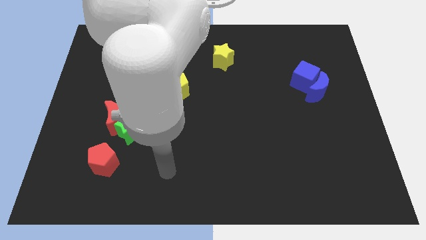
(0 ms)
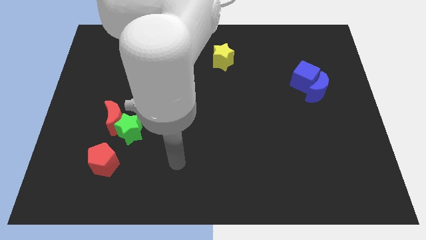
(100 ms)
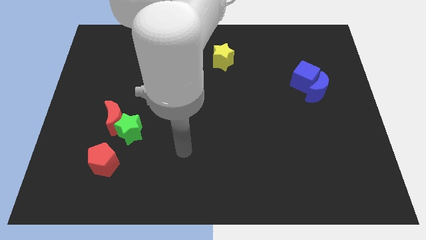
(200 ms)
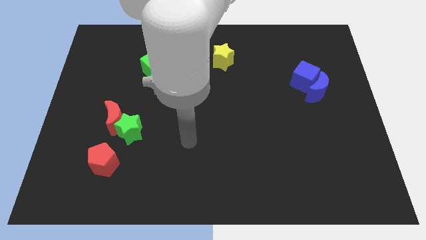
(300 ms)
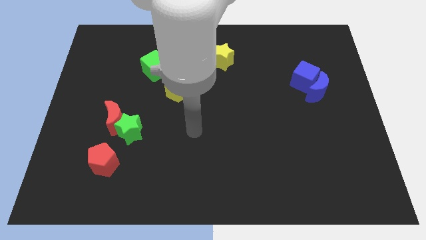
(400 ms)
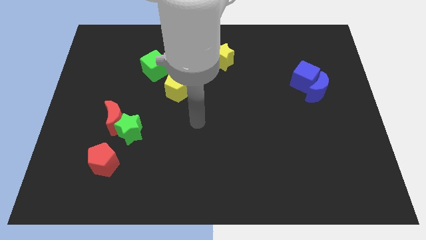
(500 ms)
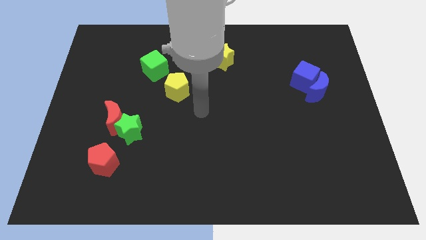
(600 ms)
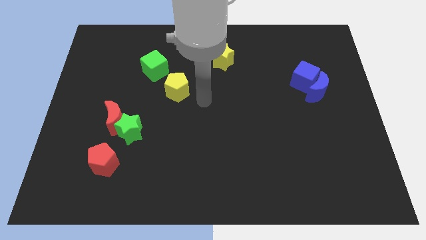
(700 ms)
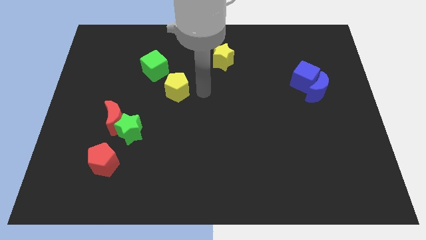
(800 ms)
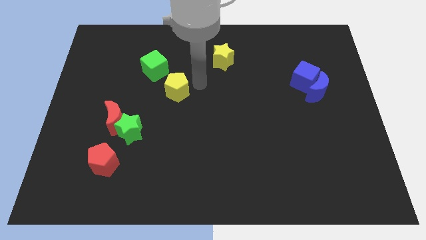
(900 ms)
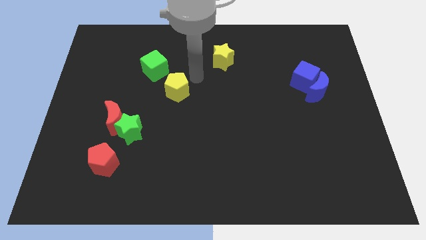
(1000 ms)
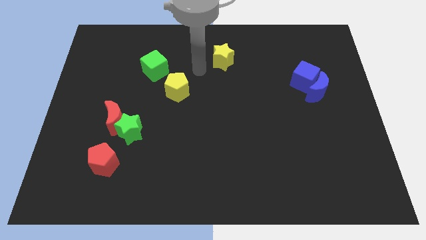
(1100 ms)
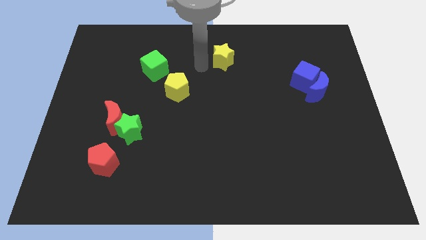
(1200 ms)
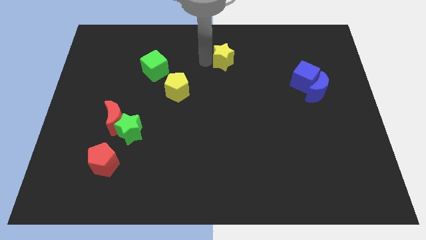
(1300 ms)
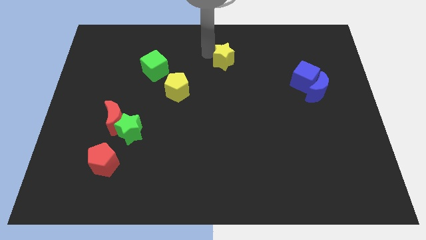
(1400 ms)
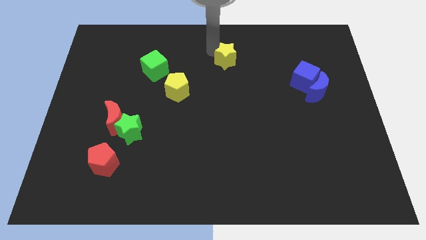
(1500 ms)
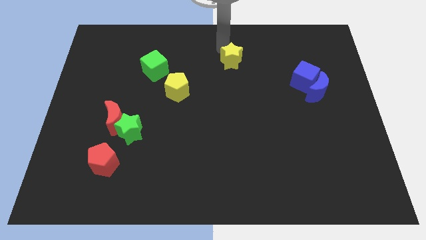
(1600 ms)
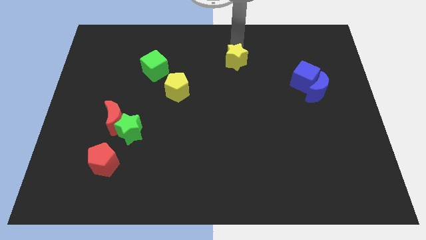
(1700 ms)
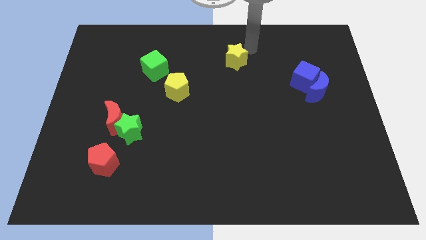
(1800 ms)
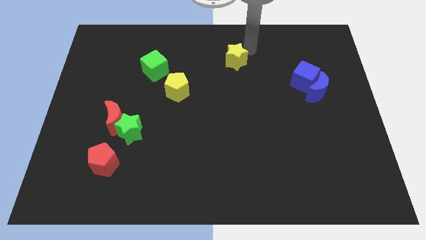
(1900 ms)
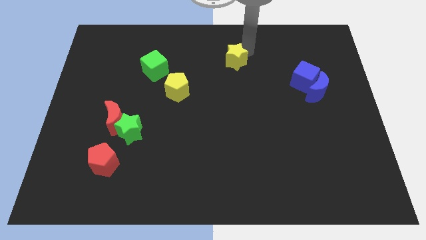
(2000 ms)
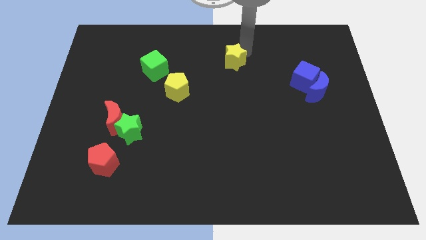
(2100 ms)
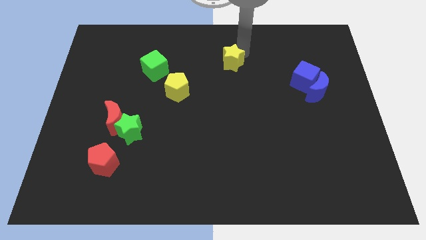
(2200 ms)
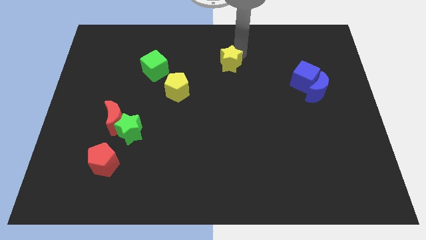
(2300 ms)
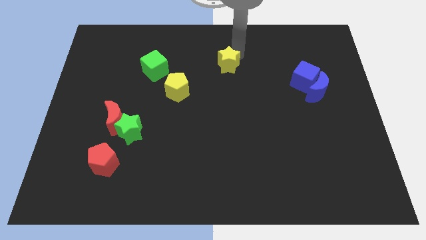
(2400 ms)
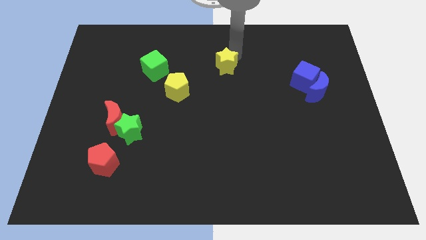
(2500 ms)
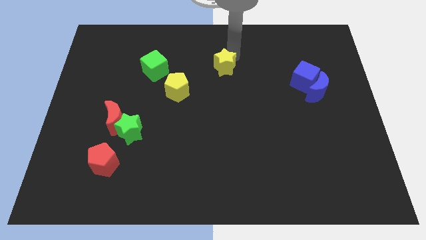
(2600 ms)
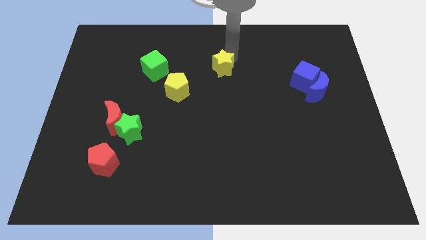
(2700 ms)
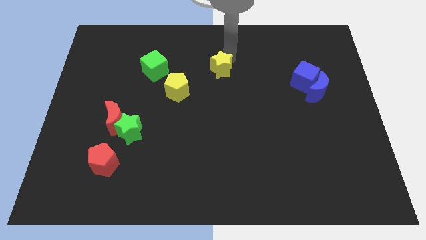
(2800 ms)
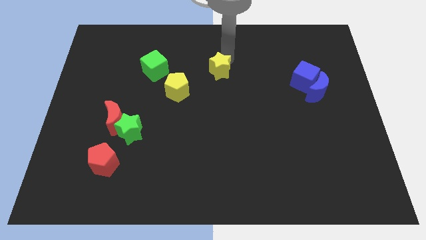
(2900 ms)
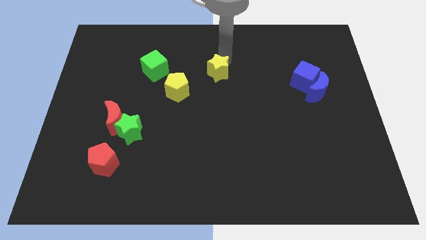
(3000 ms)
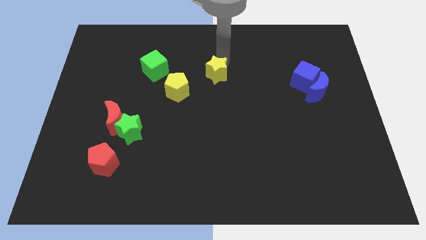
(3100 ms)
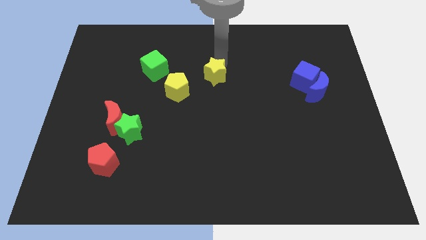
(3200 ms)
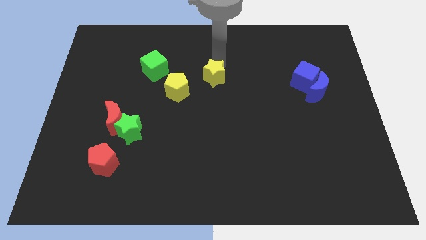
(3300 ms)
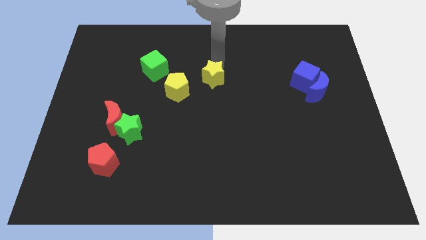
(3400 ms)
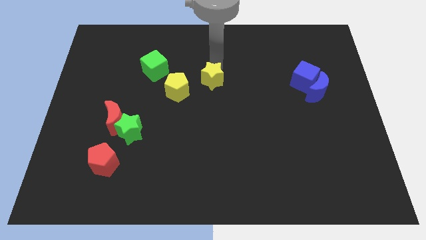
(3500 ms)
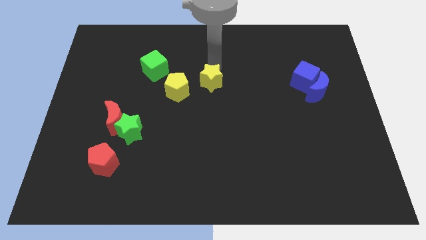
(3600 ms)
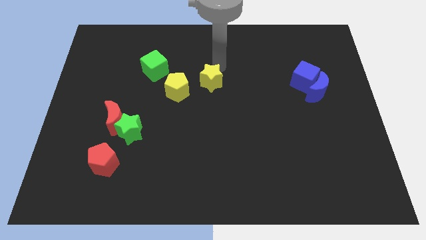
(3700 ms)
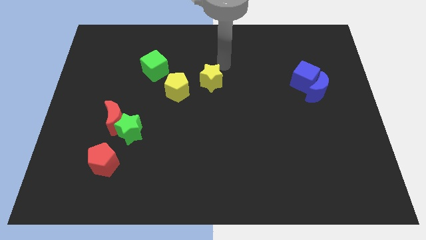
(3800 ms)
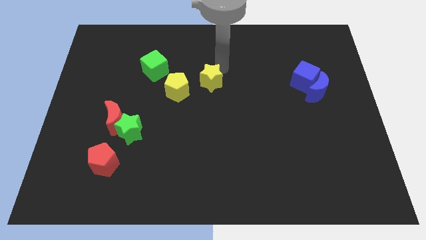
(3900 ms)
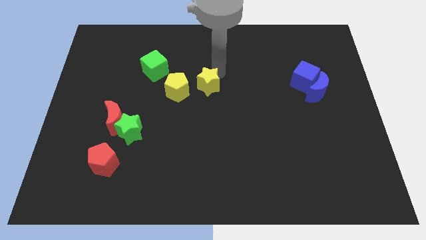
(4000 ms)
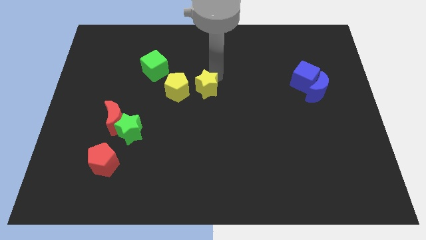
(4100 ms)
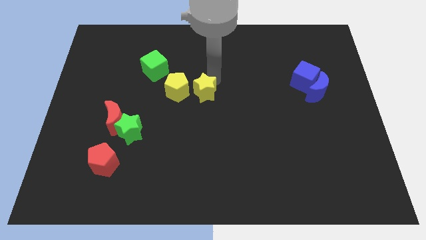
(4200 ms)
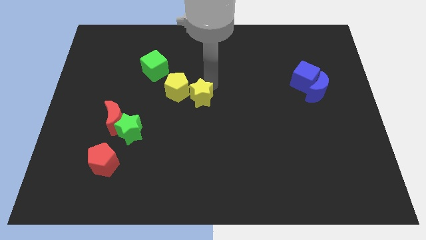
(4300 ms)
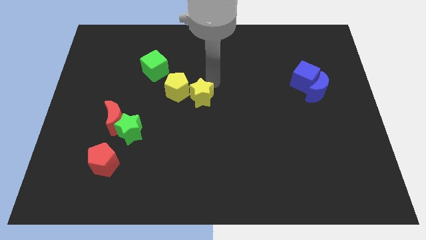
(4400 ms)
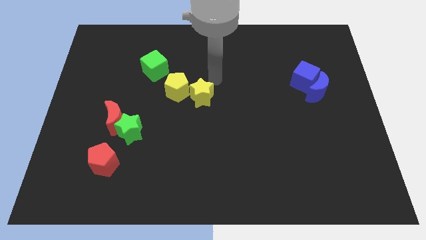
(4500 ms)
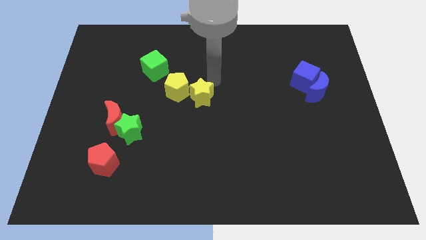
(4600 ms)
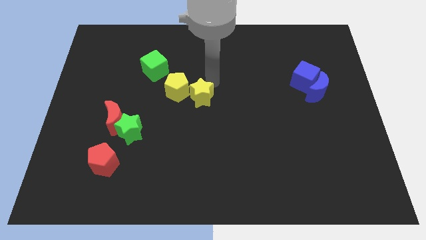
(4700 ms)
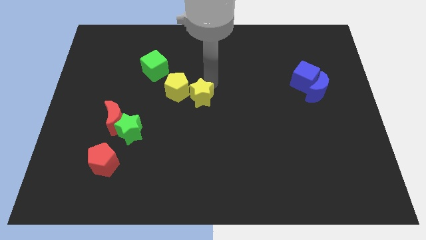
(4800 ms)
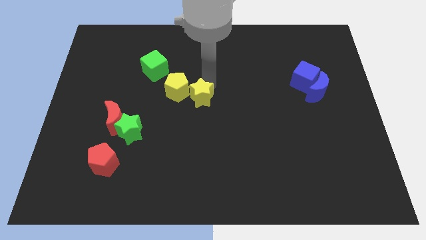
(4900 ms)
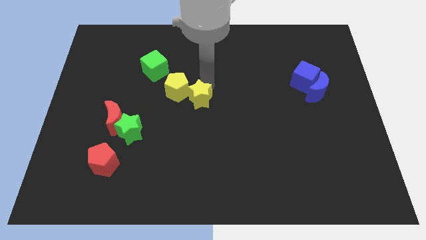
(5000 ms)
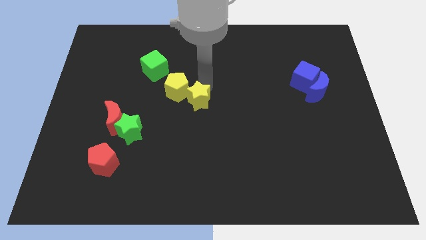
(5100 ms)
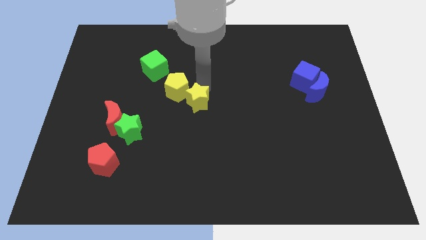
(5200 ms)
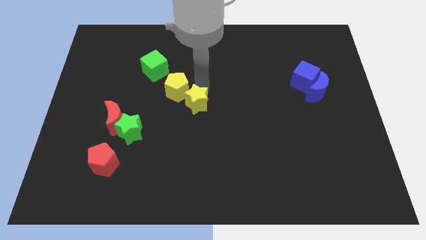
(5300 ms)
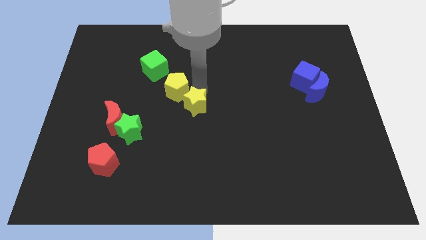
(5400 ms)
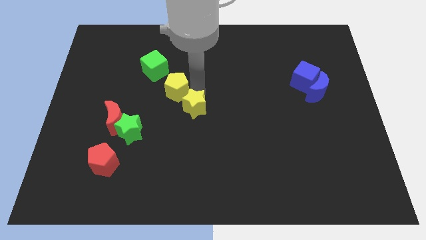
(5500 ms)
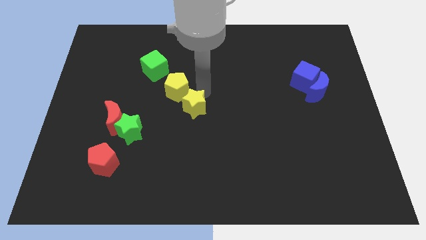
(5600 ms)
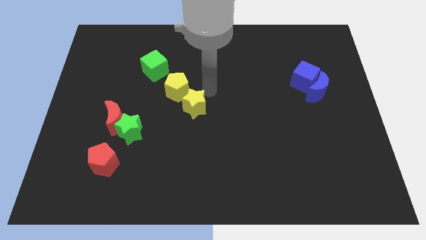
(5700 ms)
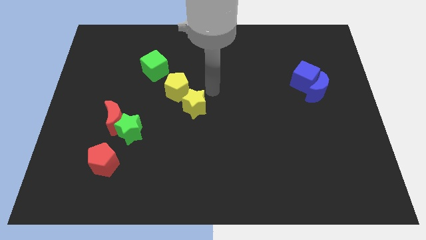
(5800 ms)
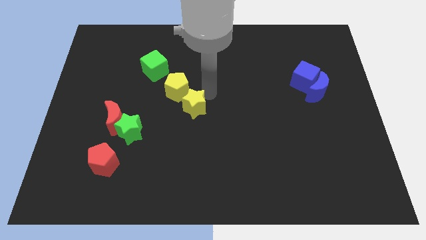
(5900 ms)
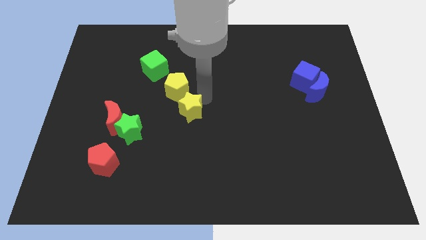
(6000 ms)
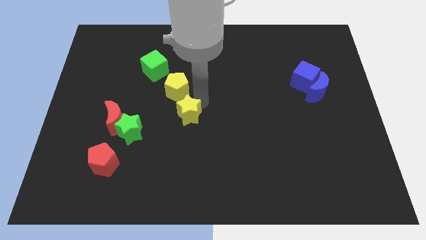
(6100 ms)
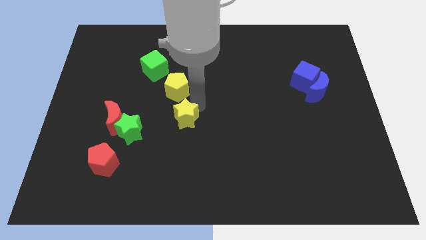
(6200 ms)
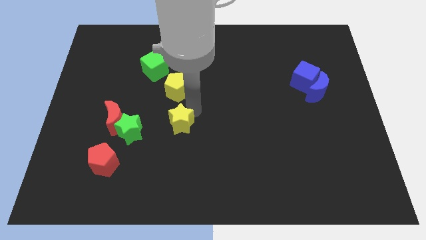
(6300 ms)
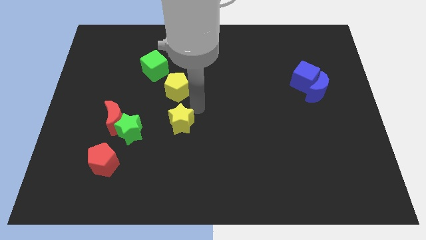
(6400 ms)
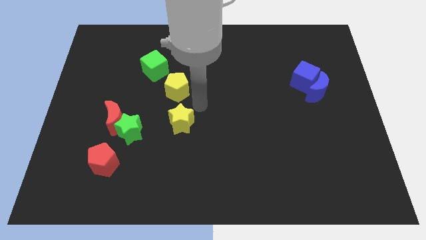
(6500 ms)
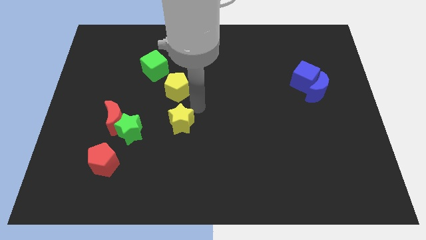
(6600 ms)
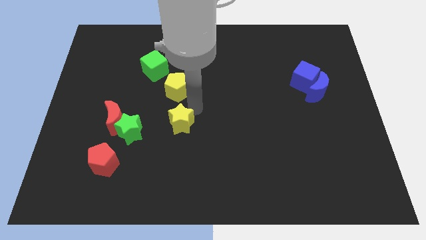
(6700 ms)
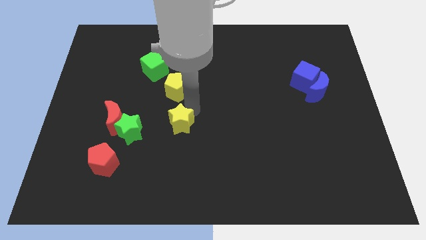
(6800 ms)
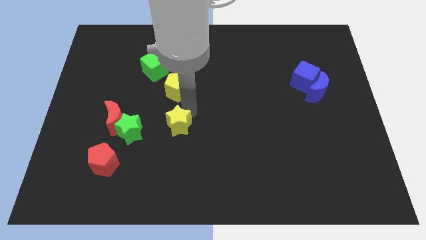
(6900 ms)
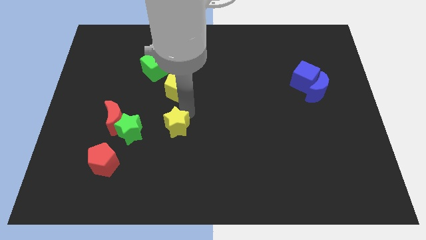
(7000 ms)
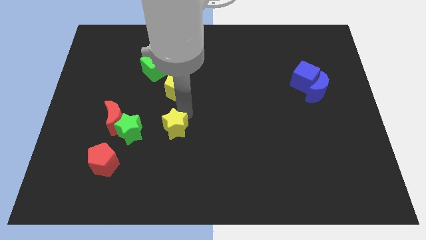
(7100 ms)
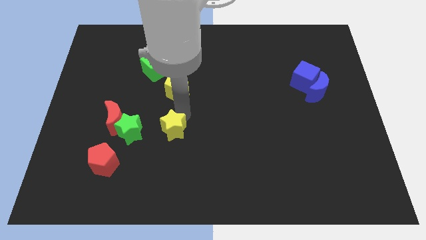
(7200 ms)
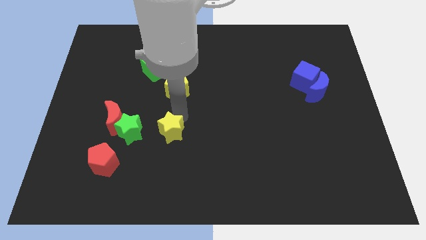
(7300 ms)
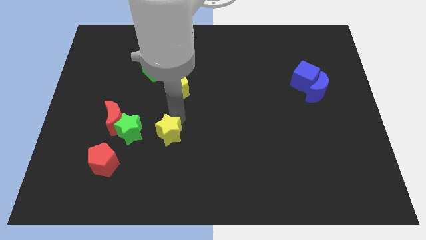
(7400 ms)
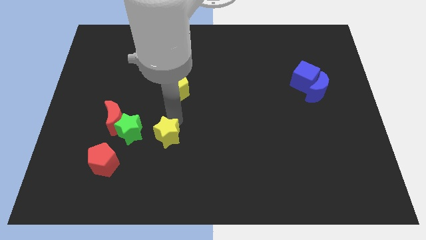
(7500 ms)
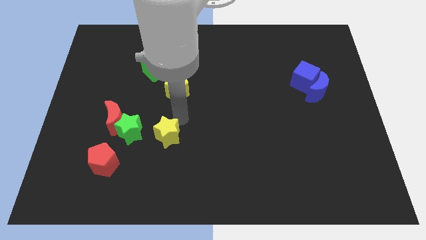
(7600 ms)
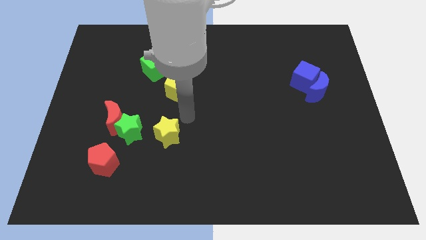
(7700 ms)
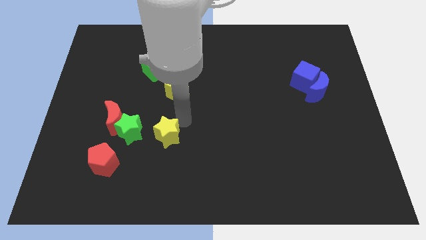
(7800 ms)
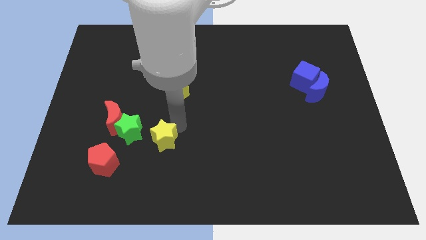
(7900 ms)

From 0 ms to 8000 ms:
move the yellow star to the bottom right of the green star
